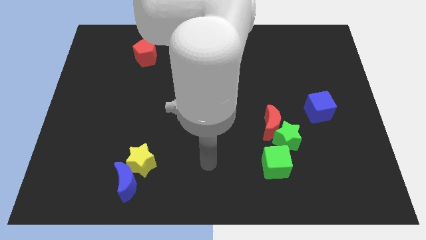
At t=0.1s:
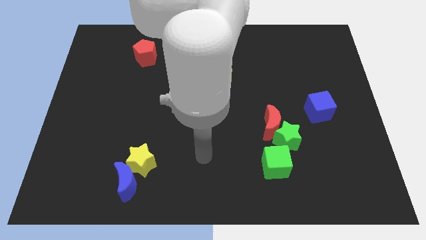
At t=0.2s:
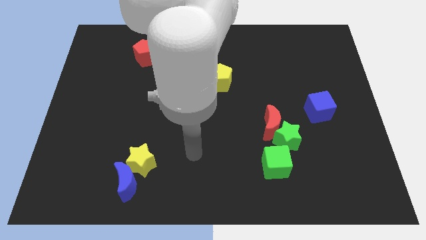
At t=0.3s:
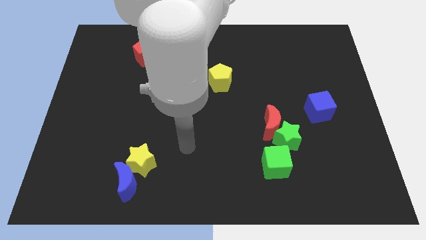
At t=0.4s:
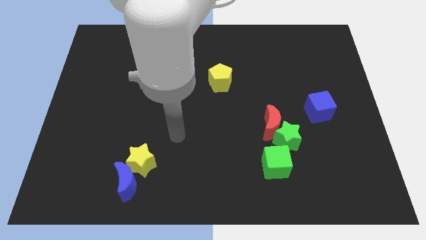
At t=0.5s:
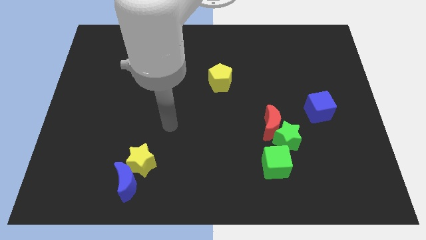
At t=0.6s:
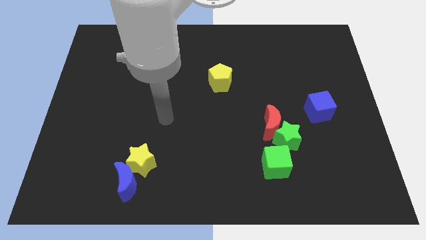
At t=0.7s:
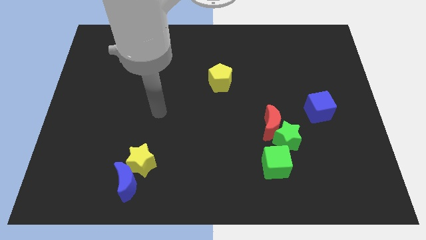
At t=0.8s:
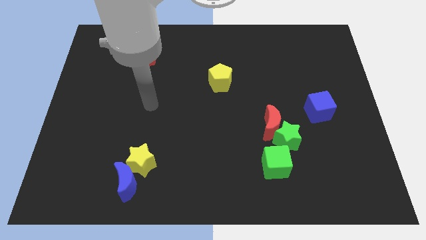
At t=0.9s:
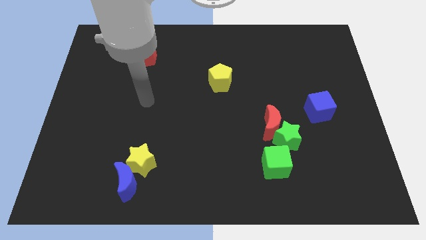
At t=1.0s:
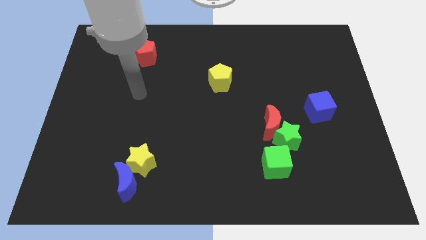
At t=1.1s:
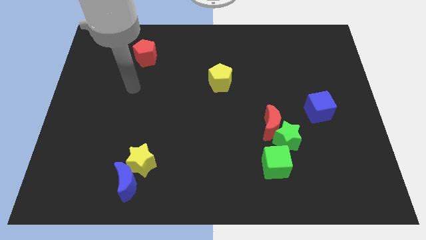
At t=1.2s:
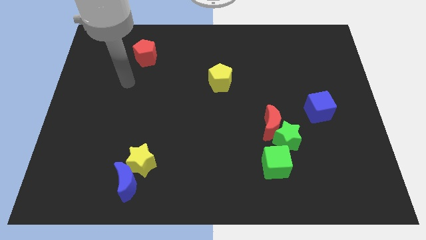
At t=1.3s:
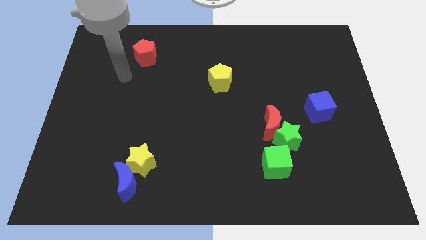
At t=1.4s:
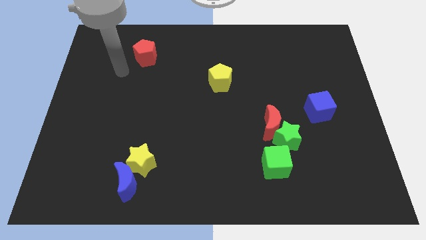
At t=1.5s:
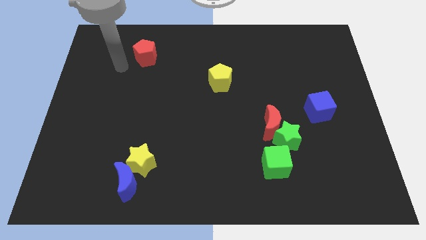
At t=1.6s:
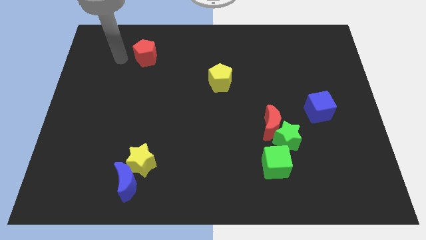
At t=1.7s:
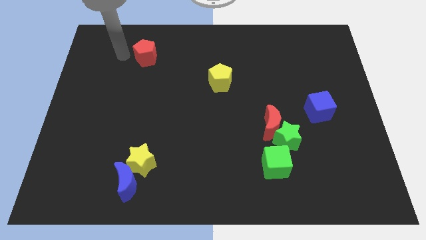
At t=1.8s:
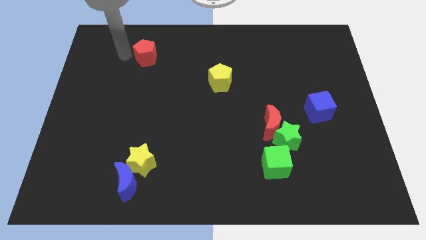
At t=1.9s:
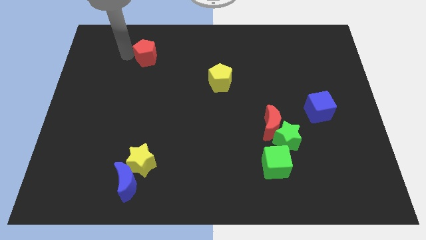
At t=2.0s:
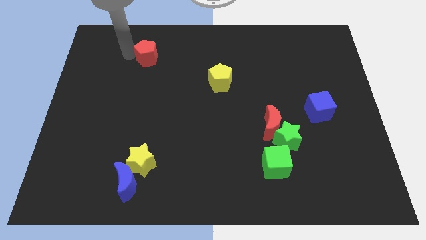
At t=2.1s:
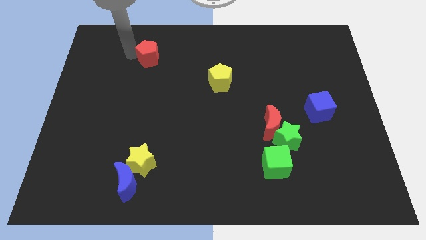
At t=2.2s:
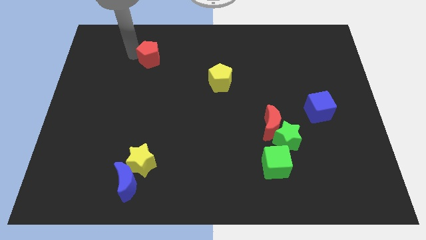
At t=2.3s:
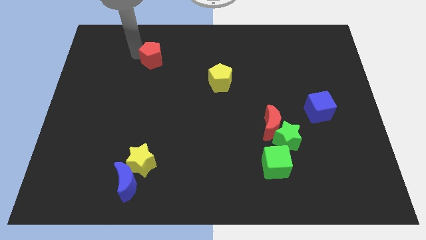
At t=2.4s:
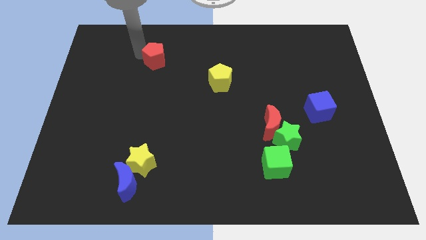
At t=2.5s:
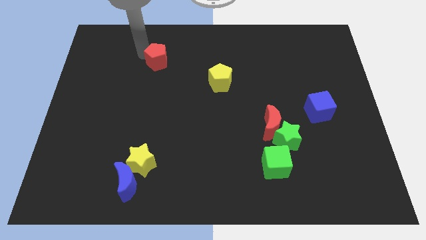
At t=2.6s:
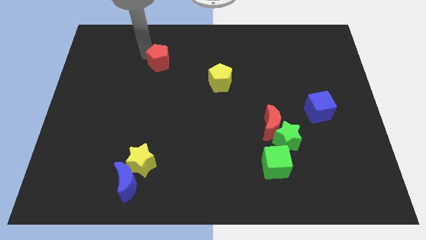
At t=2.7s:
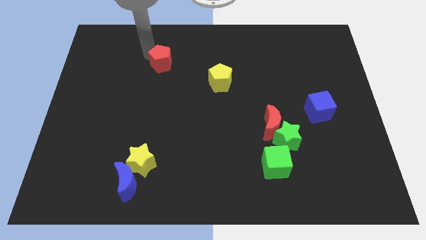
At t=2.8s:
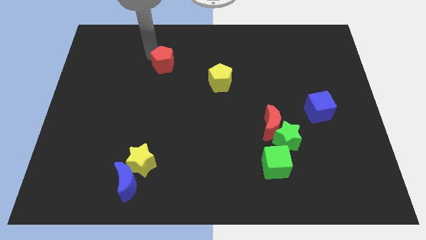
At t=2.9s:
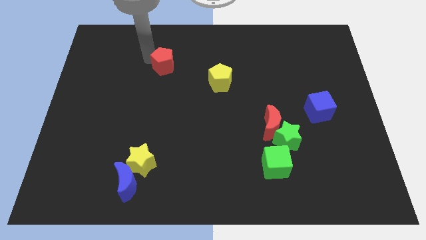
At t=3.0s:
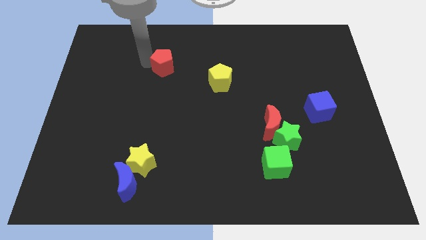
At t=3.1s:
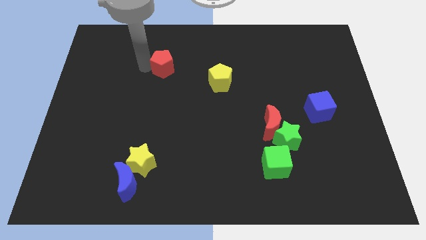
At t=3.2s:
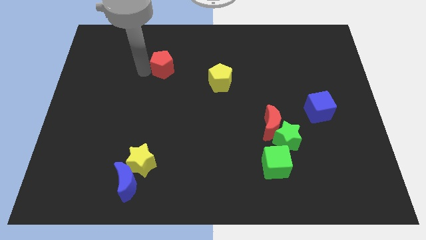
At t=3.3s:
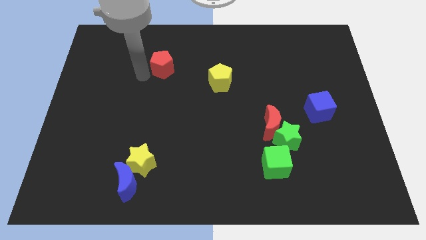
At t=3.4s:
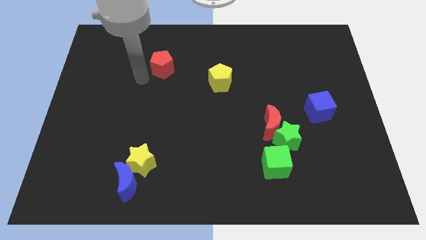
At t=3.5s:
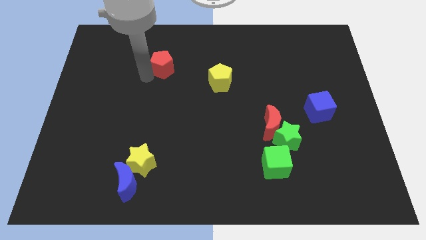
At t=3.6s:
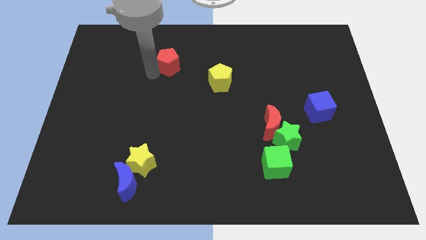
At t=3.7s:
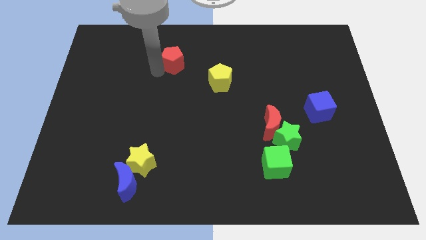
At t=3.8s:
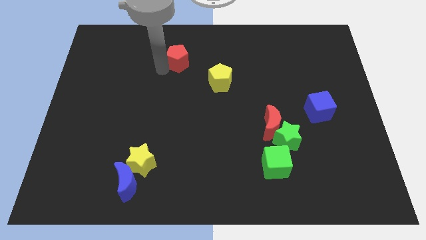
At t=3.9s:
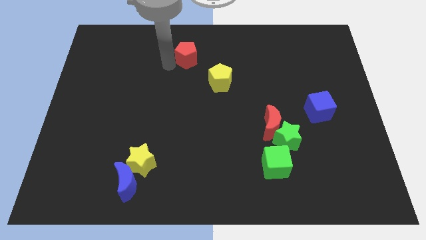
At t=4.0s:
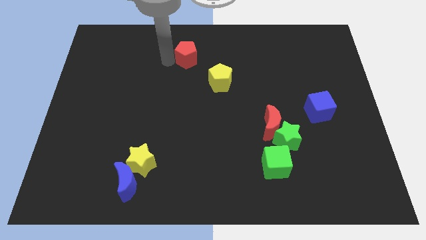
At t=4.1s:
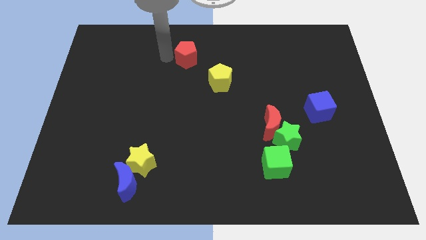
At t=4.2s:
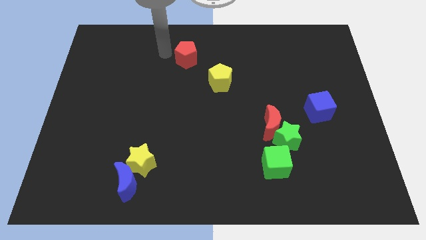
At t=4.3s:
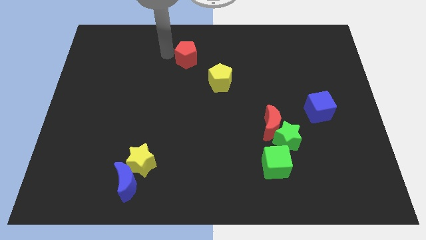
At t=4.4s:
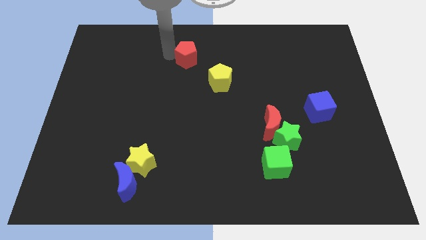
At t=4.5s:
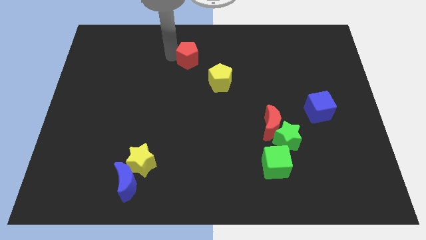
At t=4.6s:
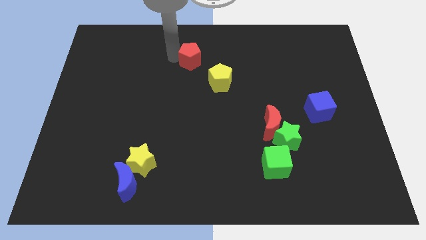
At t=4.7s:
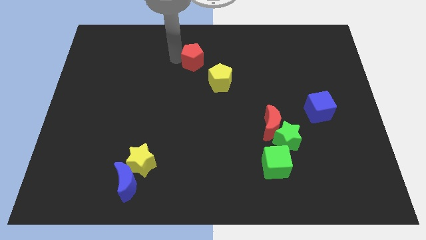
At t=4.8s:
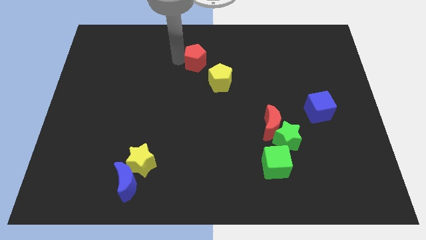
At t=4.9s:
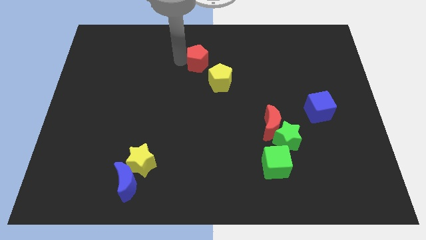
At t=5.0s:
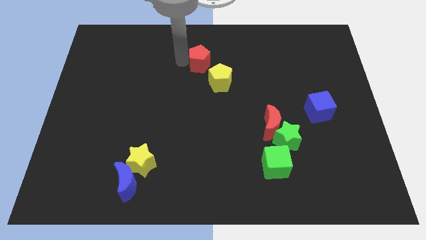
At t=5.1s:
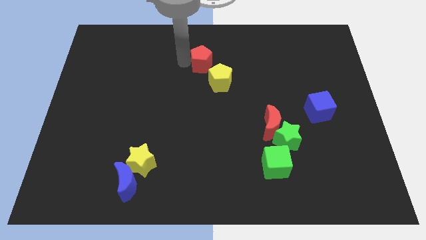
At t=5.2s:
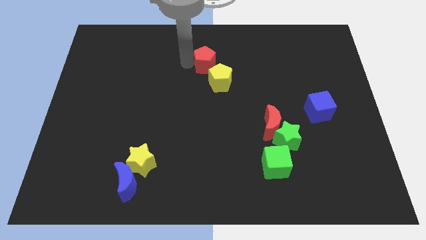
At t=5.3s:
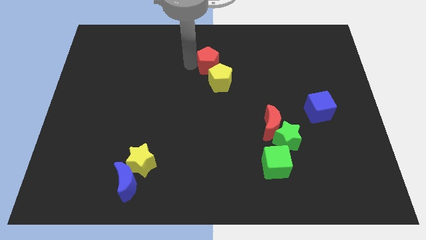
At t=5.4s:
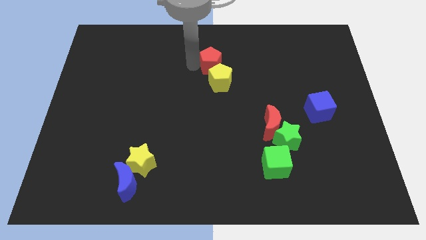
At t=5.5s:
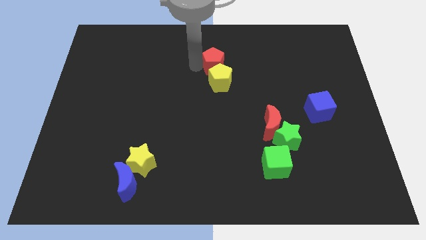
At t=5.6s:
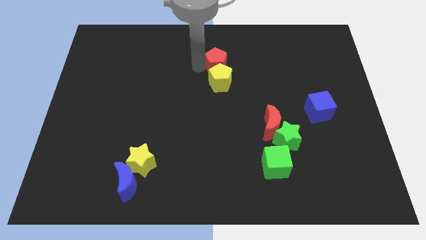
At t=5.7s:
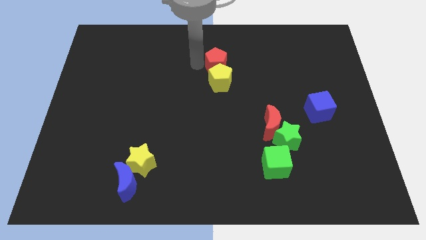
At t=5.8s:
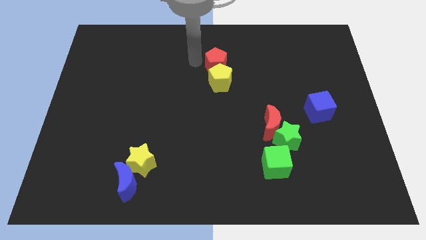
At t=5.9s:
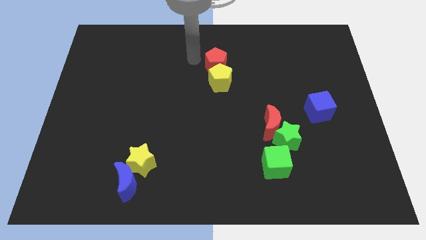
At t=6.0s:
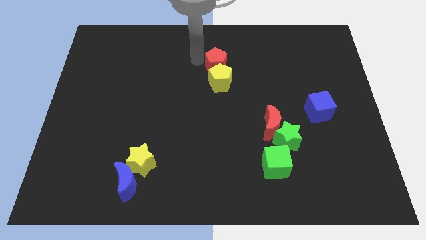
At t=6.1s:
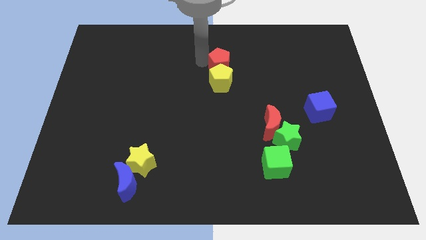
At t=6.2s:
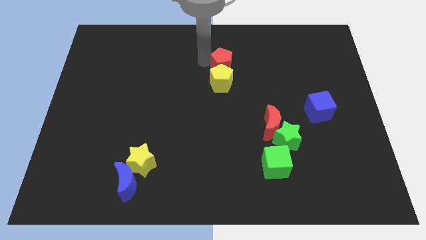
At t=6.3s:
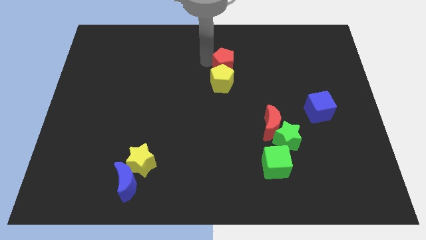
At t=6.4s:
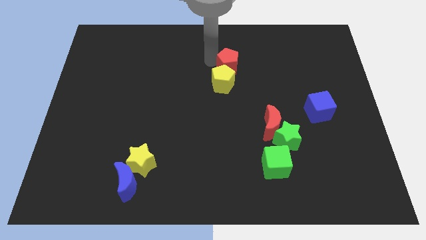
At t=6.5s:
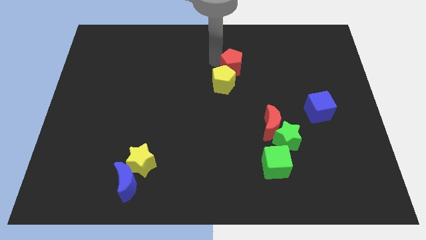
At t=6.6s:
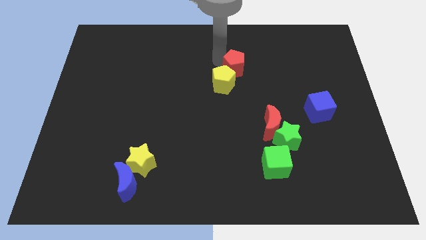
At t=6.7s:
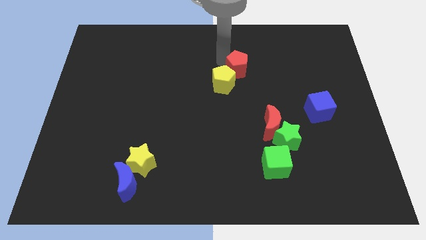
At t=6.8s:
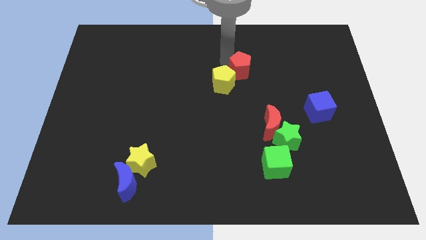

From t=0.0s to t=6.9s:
slide the red pentagon to the right of the yellow pentagon
